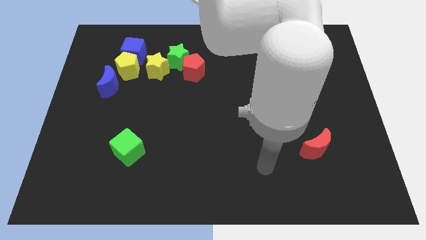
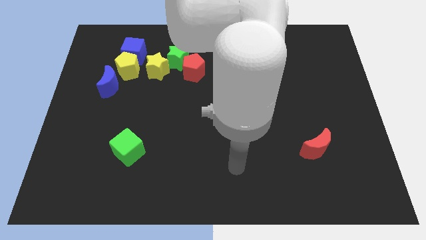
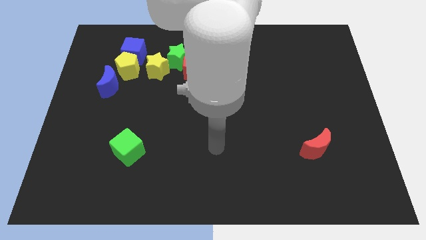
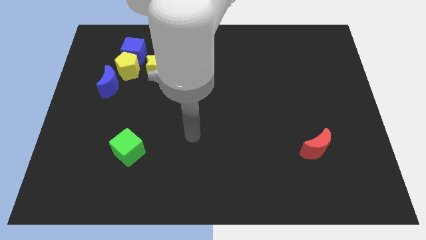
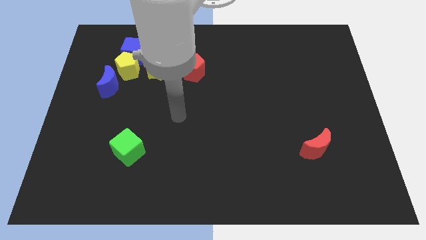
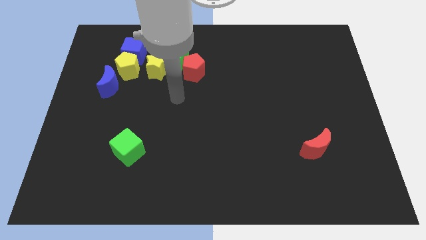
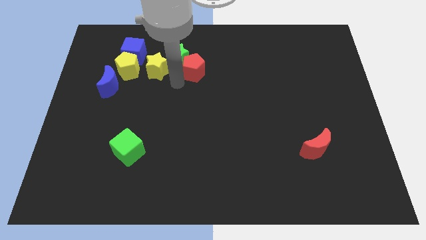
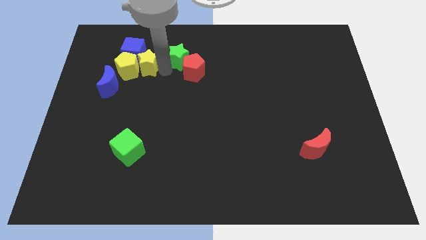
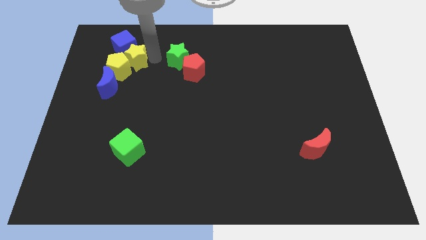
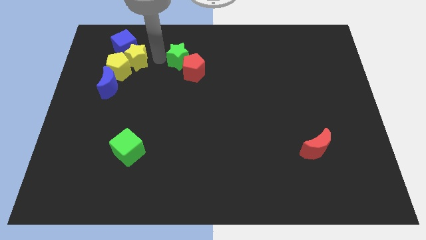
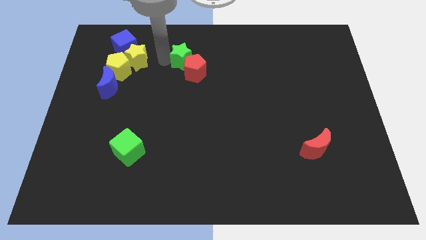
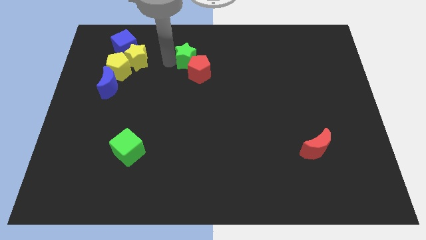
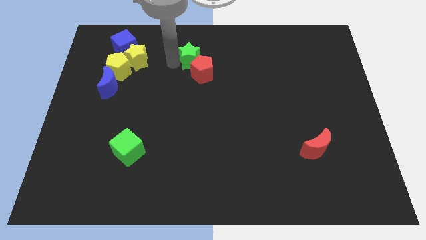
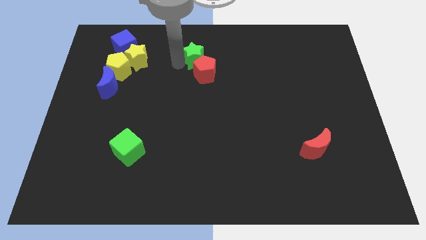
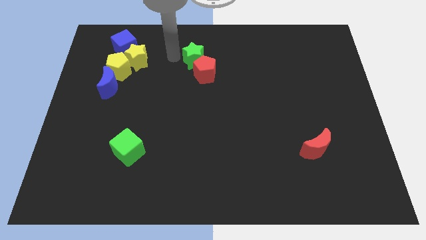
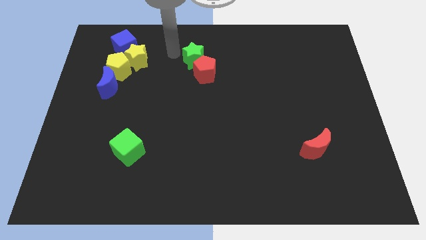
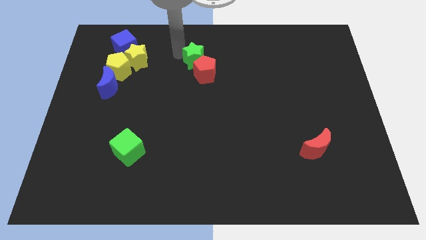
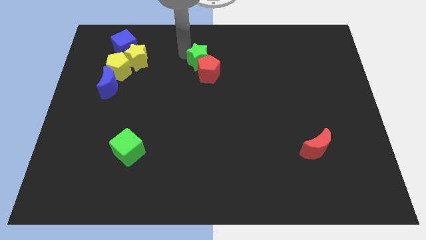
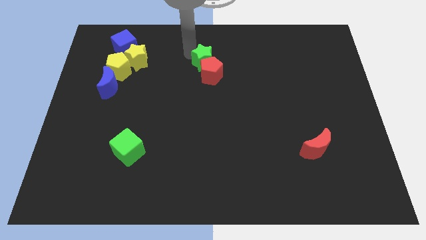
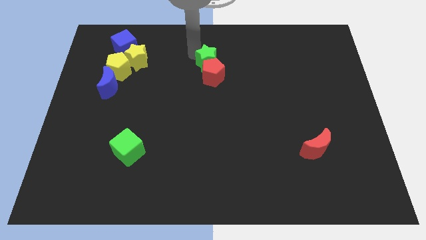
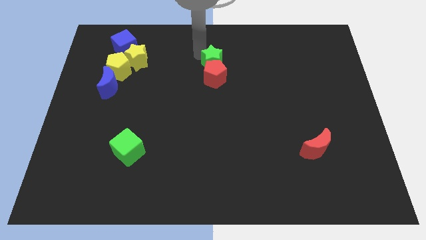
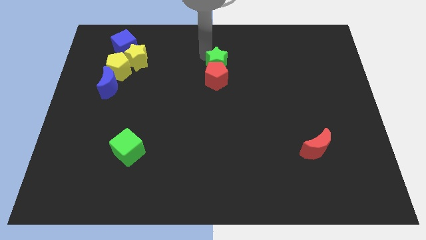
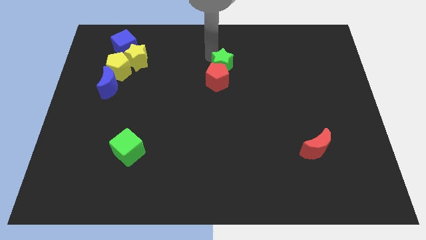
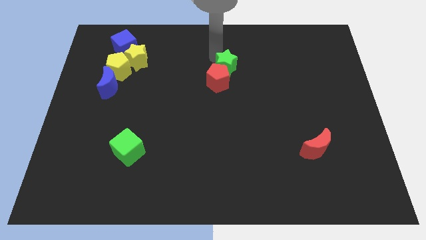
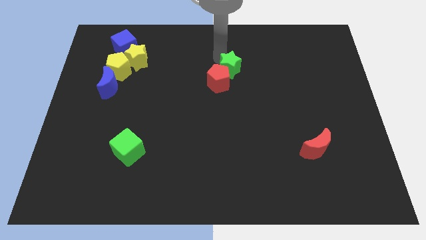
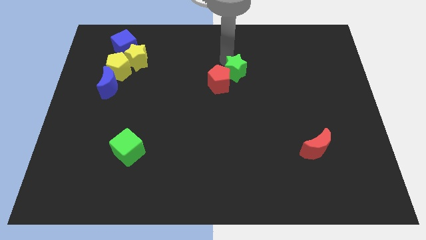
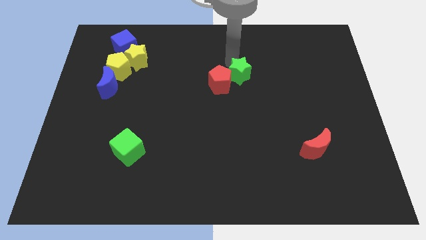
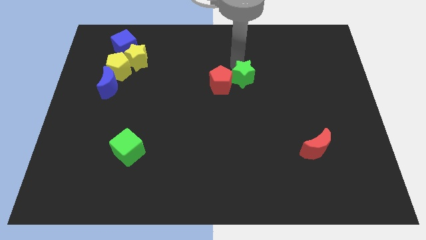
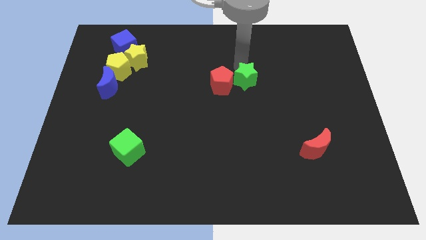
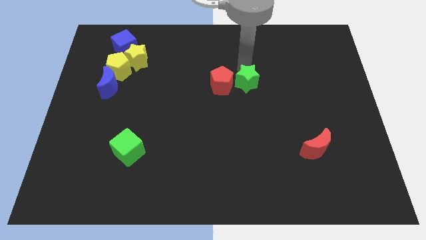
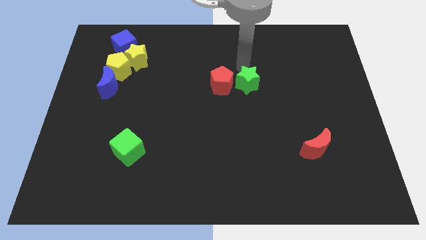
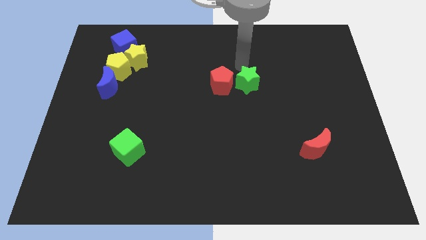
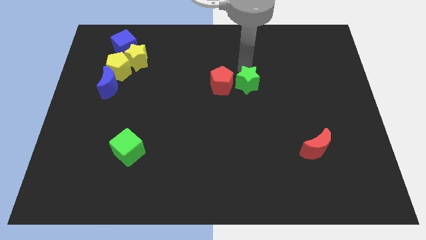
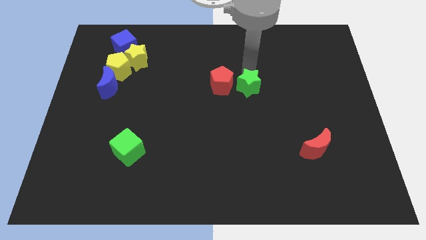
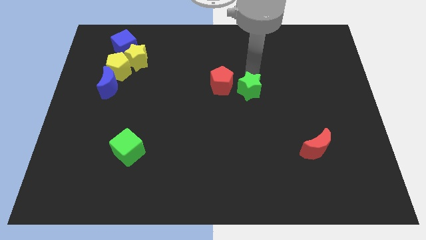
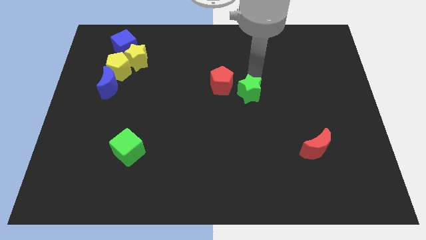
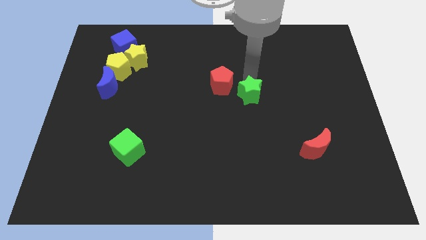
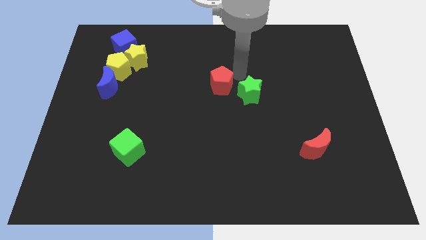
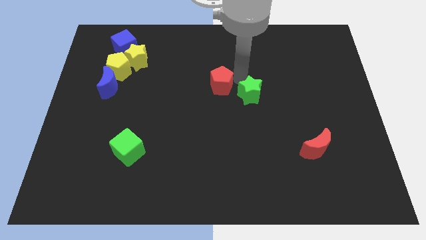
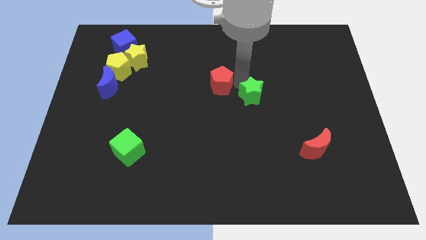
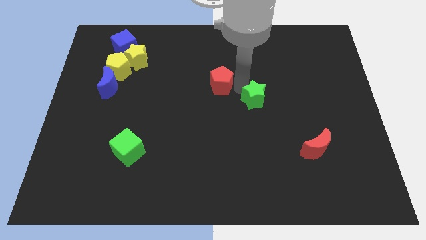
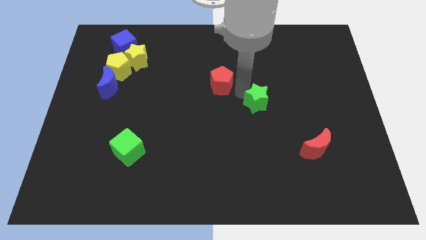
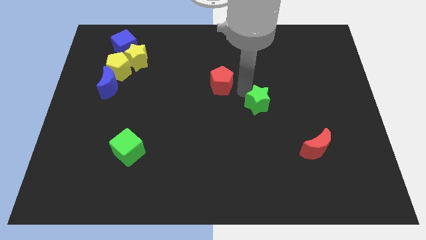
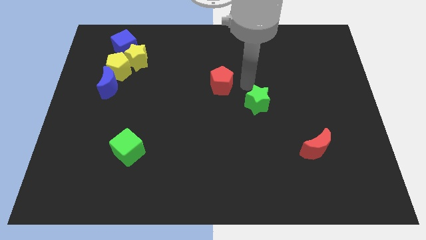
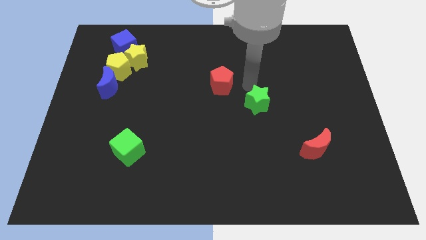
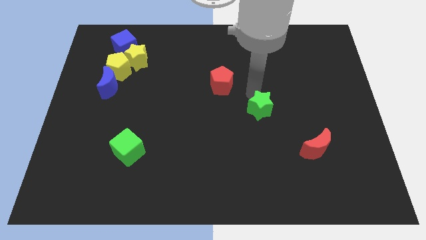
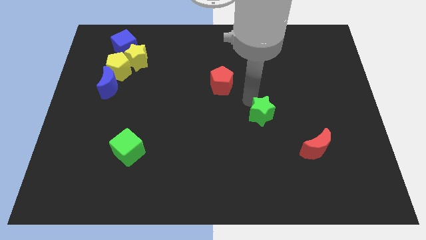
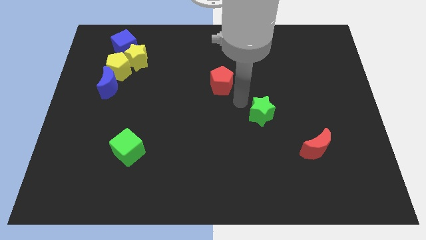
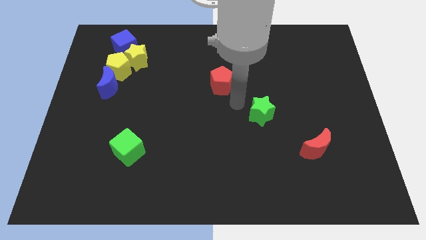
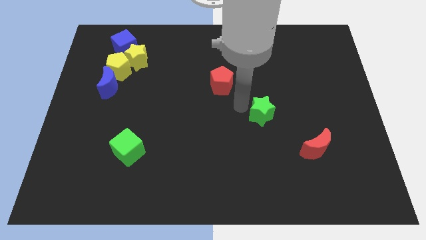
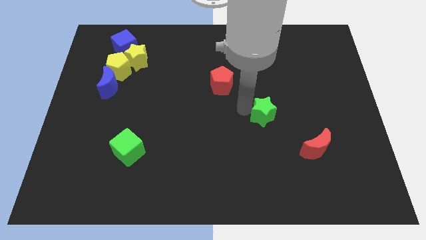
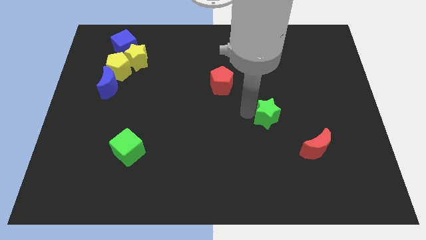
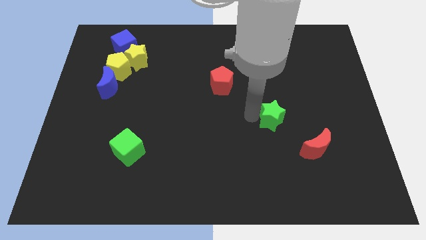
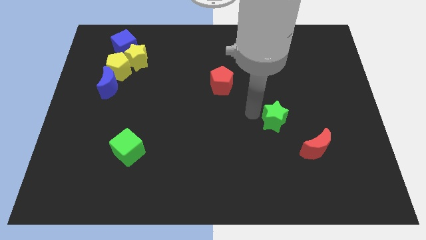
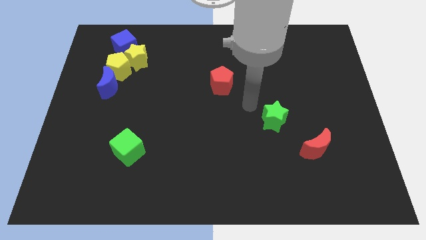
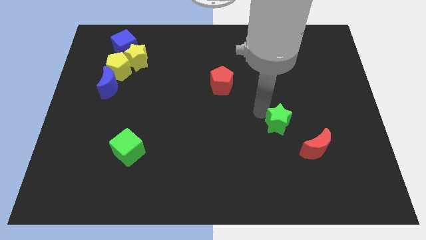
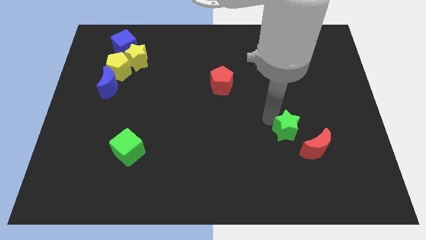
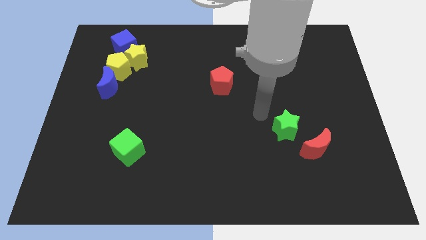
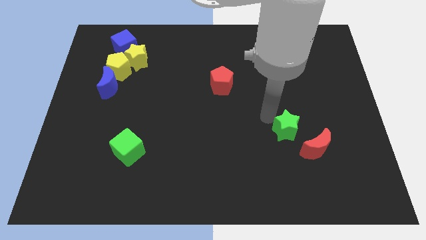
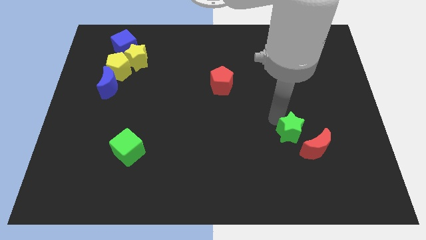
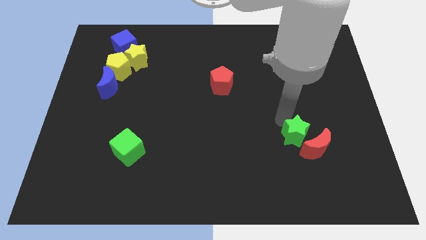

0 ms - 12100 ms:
slide the green star next to the red moon
